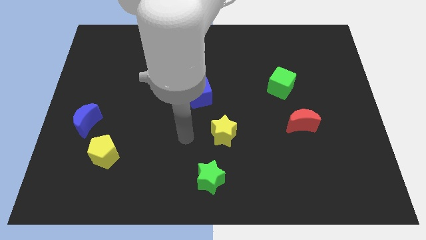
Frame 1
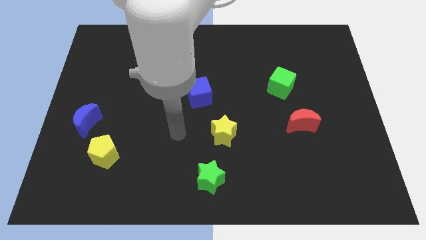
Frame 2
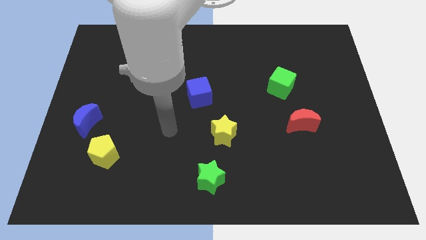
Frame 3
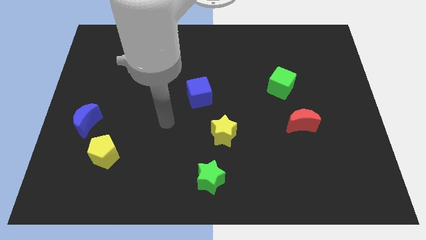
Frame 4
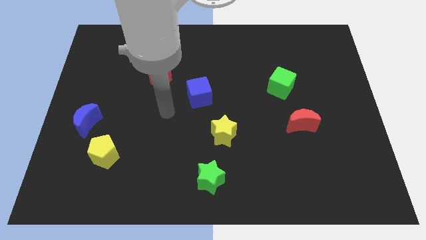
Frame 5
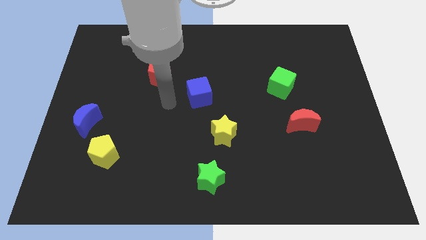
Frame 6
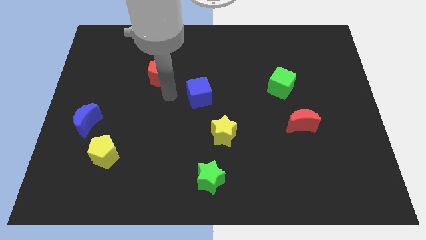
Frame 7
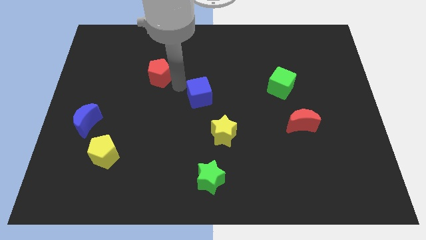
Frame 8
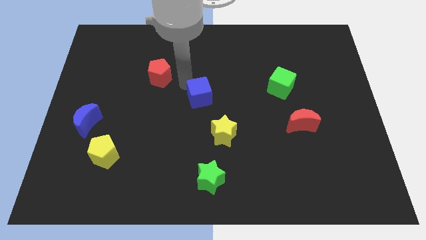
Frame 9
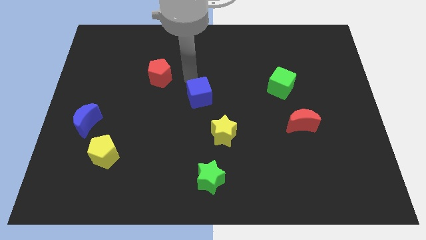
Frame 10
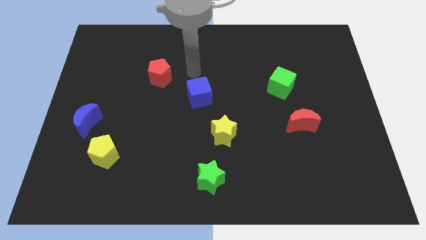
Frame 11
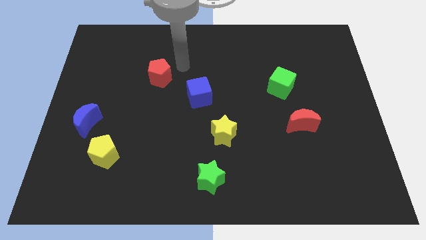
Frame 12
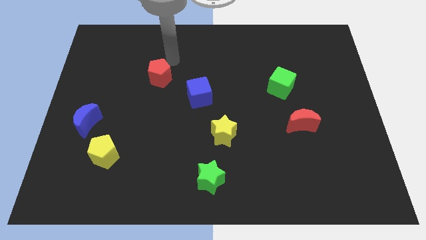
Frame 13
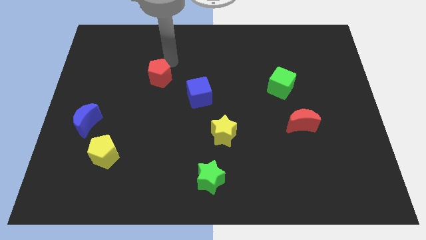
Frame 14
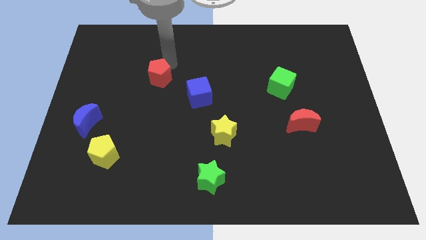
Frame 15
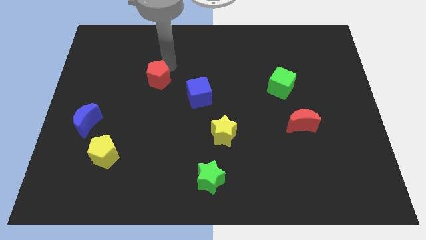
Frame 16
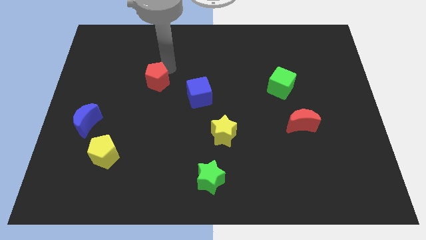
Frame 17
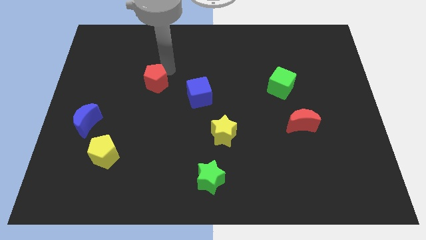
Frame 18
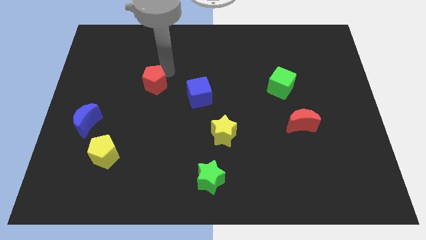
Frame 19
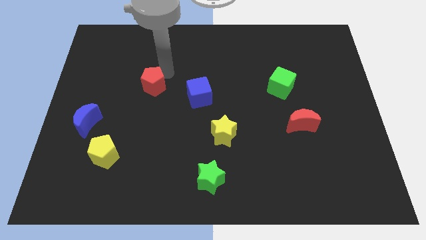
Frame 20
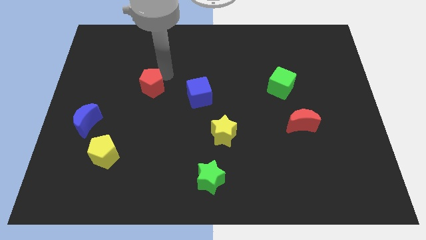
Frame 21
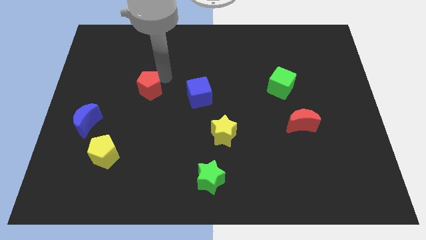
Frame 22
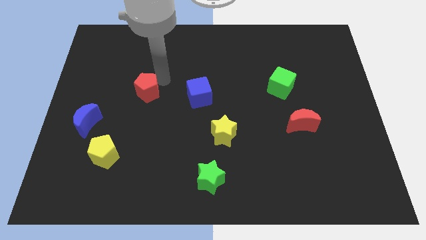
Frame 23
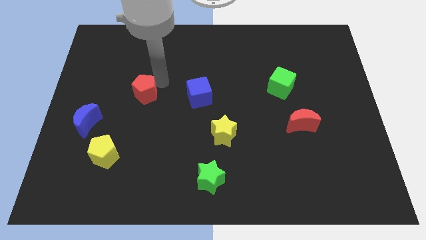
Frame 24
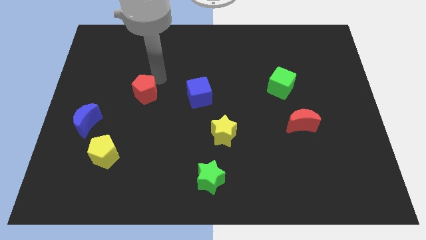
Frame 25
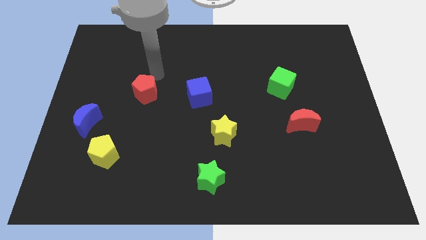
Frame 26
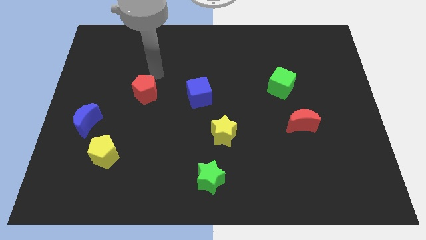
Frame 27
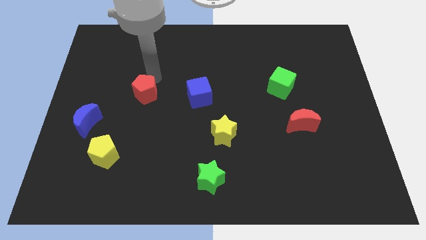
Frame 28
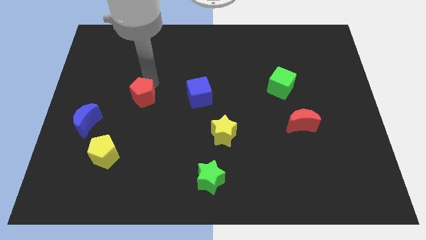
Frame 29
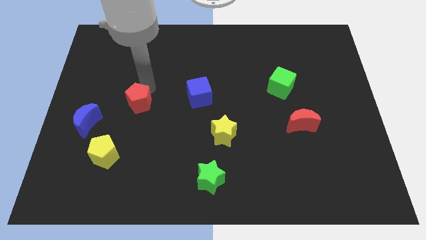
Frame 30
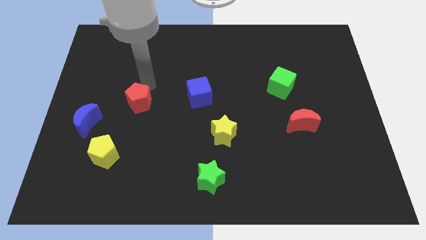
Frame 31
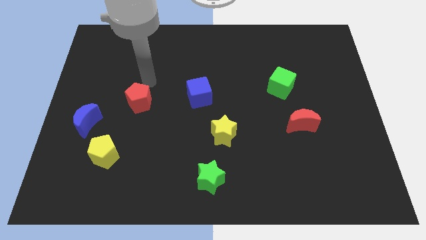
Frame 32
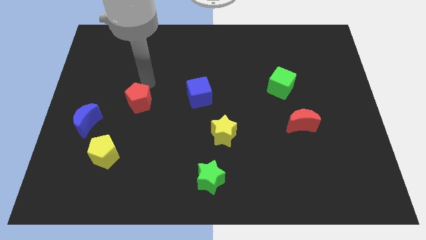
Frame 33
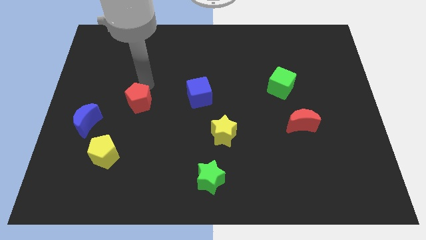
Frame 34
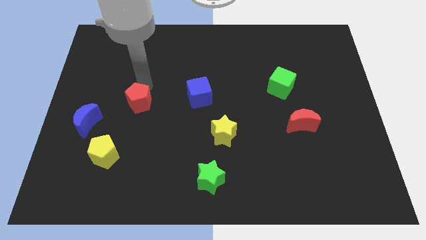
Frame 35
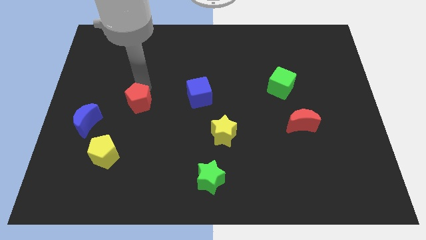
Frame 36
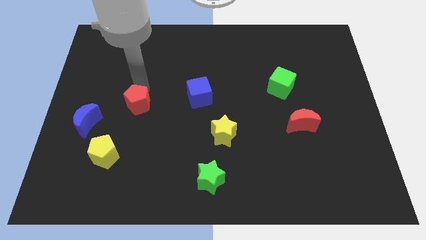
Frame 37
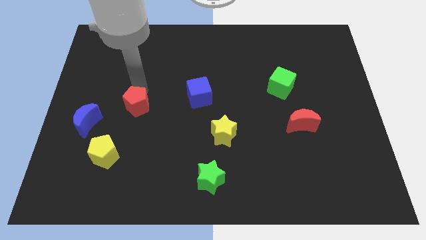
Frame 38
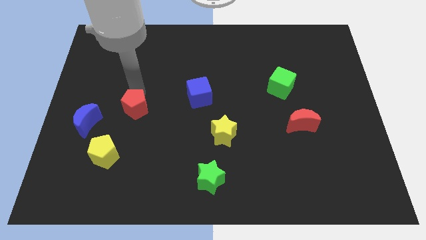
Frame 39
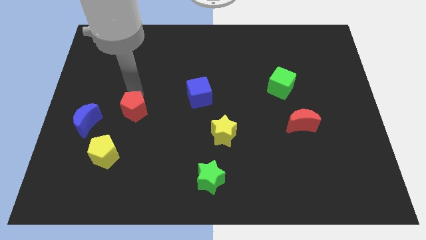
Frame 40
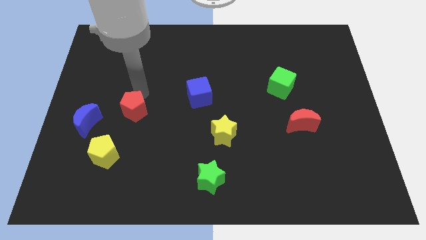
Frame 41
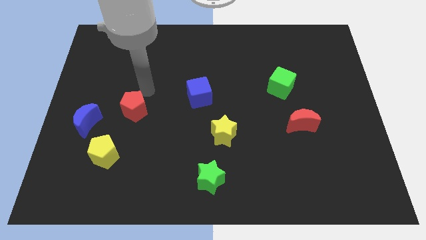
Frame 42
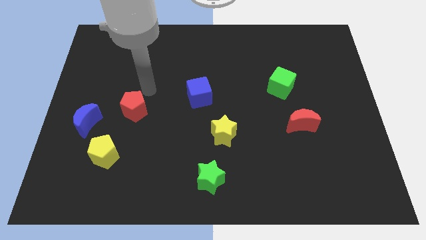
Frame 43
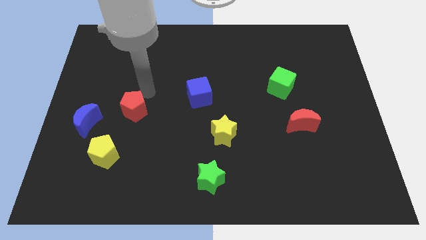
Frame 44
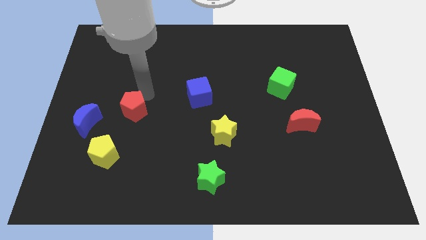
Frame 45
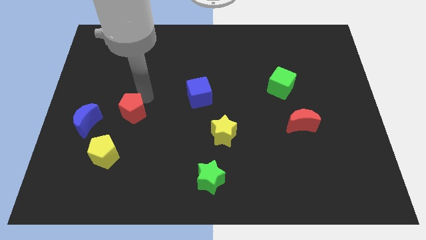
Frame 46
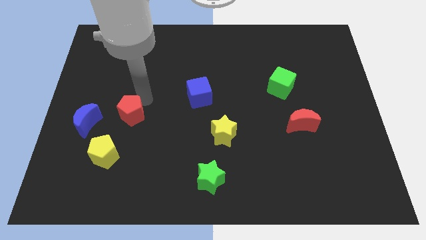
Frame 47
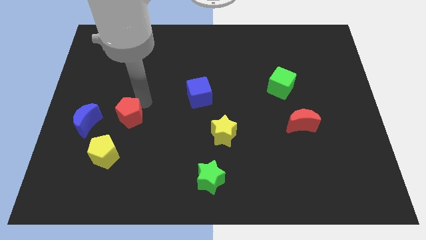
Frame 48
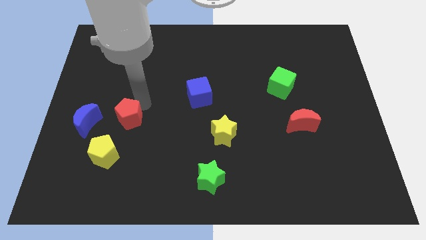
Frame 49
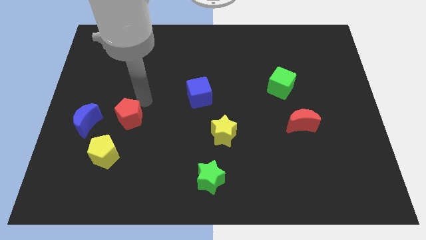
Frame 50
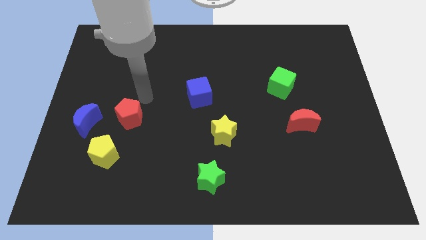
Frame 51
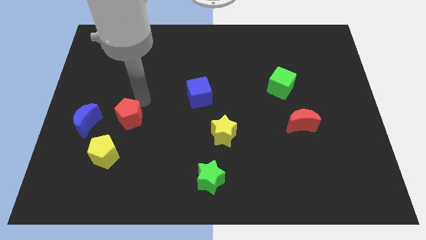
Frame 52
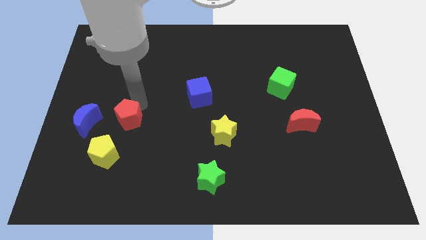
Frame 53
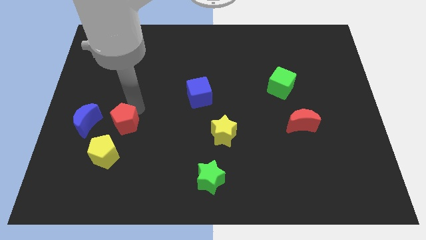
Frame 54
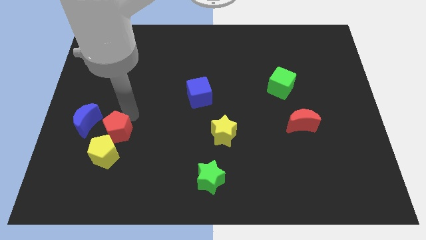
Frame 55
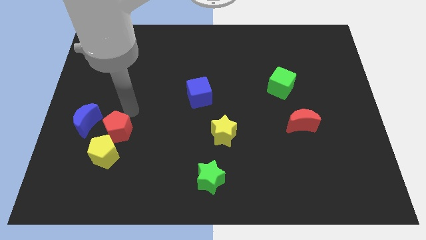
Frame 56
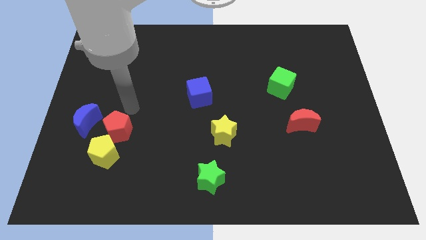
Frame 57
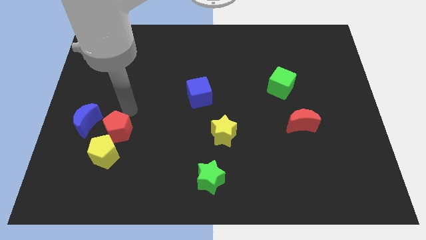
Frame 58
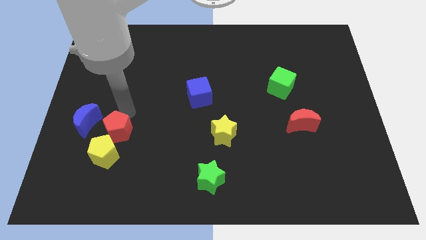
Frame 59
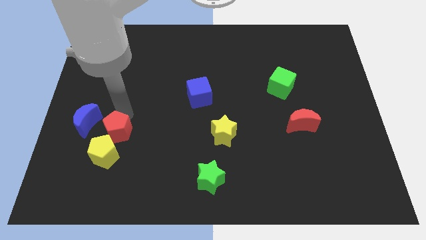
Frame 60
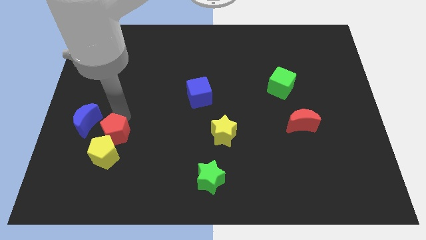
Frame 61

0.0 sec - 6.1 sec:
put the red pentagon towards the yellow pentagon

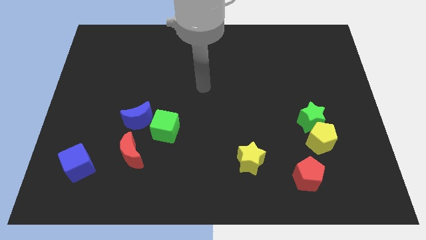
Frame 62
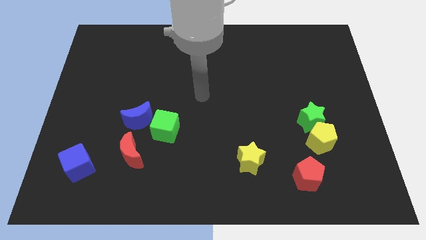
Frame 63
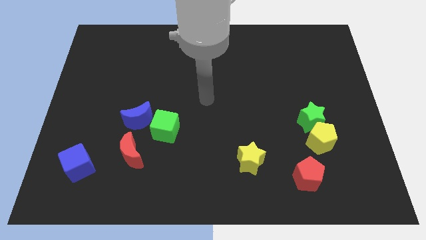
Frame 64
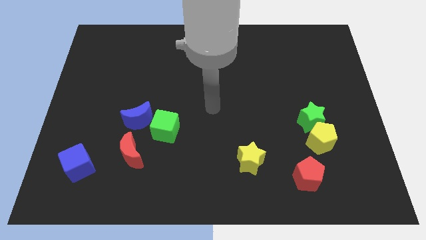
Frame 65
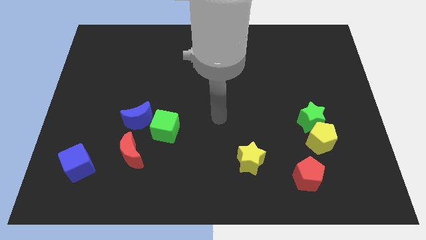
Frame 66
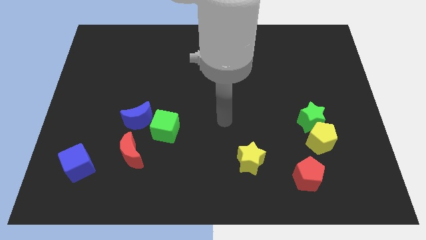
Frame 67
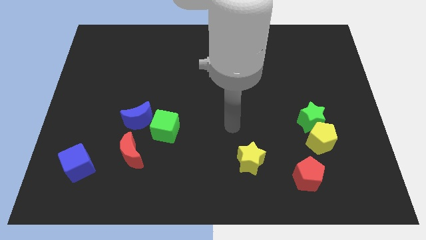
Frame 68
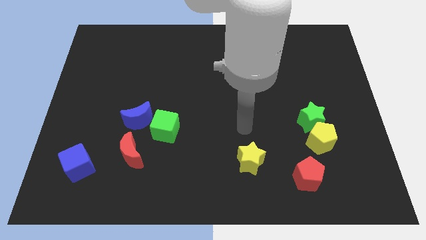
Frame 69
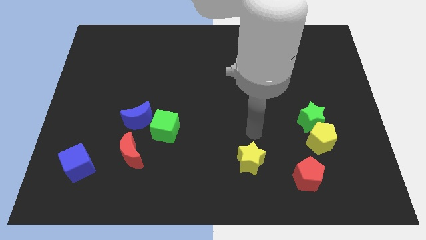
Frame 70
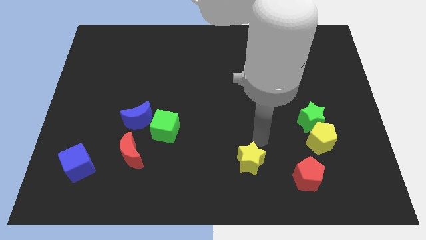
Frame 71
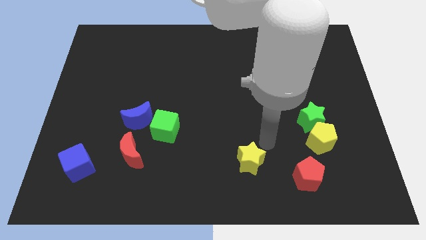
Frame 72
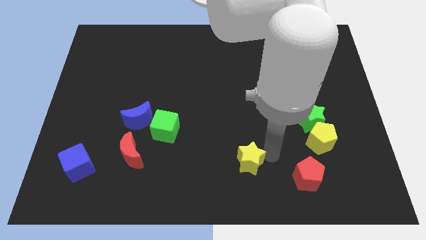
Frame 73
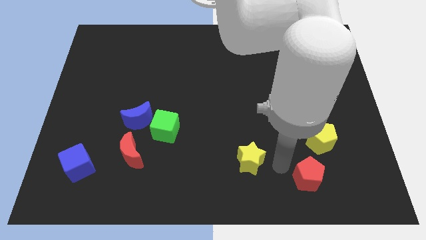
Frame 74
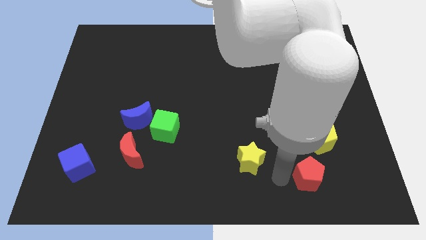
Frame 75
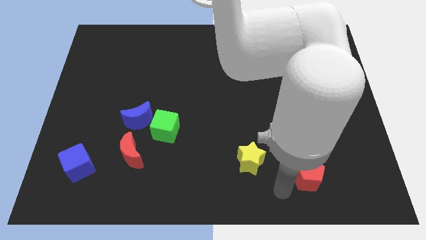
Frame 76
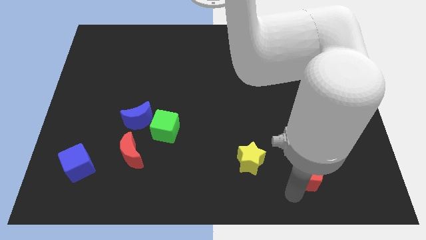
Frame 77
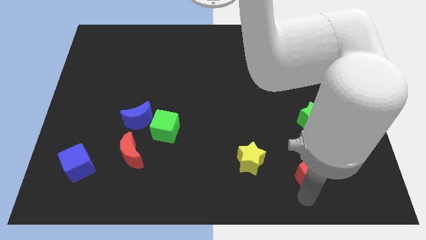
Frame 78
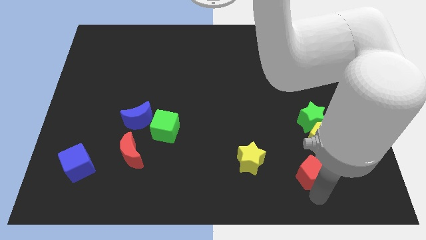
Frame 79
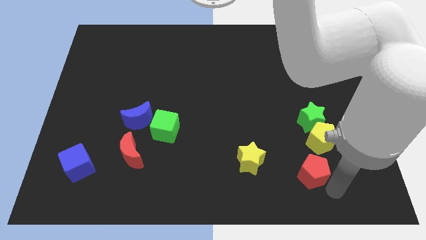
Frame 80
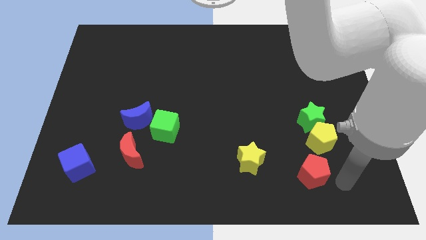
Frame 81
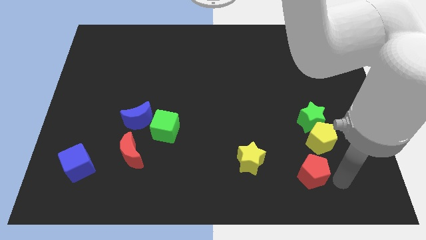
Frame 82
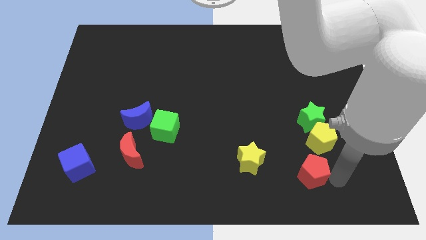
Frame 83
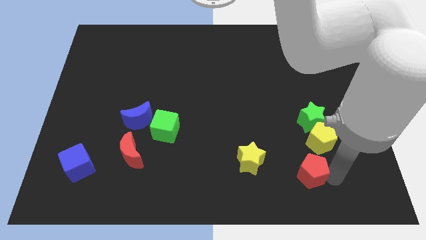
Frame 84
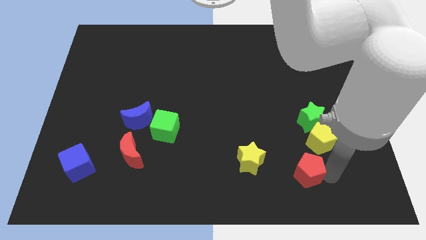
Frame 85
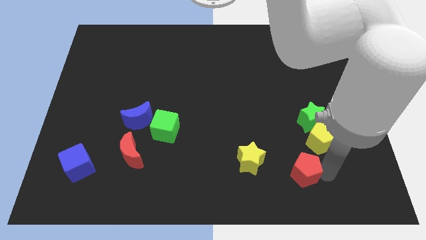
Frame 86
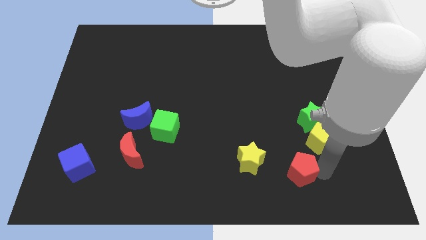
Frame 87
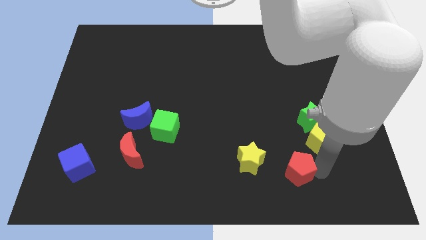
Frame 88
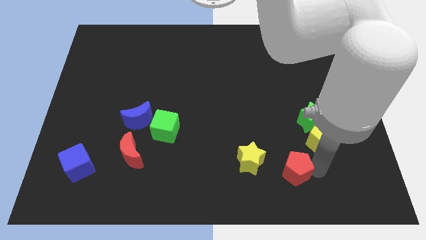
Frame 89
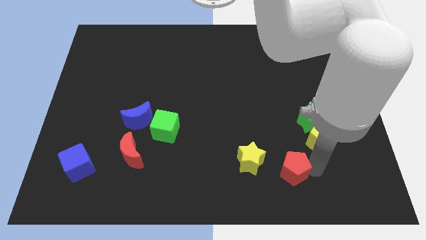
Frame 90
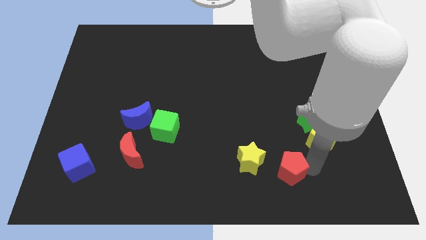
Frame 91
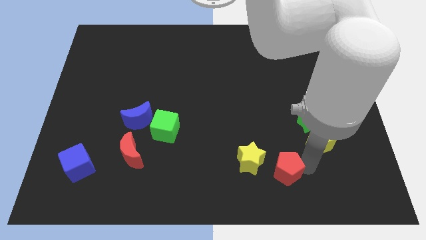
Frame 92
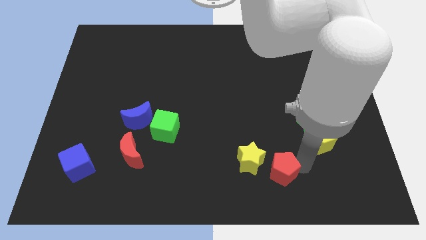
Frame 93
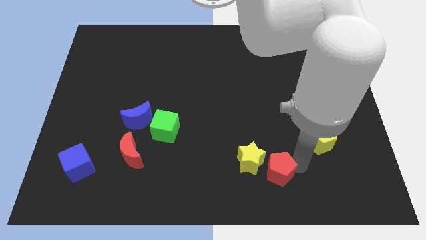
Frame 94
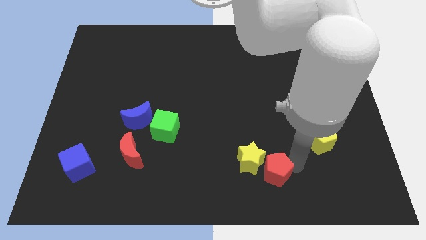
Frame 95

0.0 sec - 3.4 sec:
slide the red pentagon next to the yellow star
